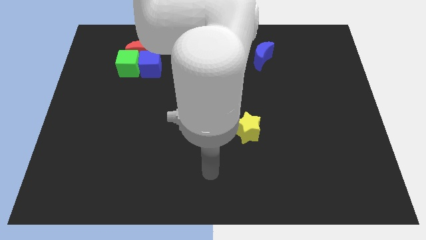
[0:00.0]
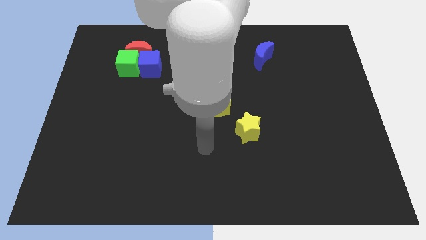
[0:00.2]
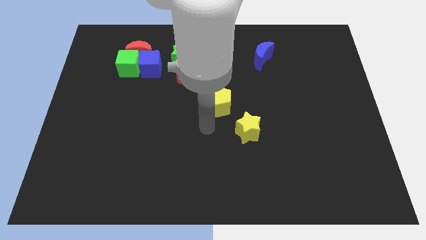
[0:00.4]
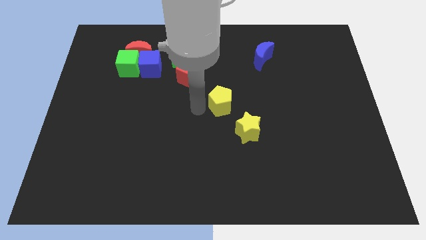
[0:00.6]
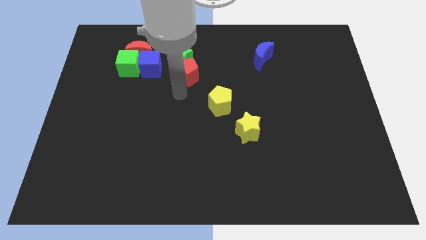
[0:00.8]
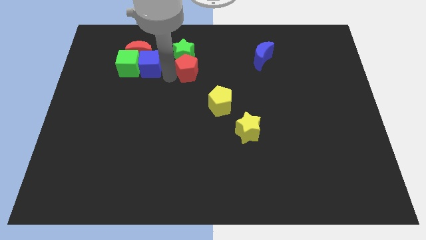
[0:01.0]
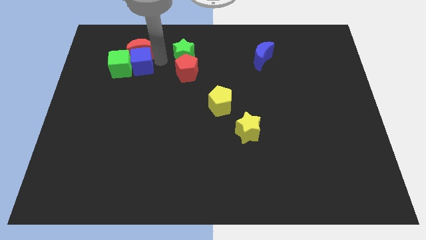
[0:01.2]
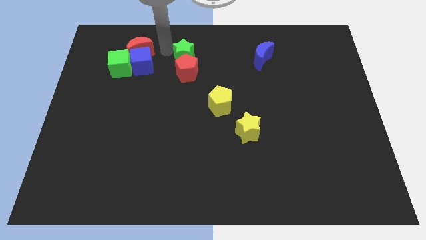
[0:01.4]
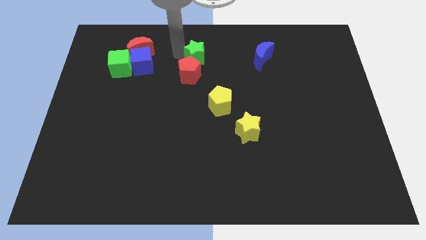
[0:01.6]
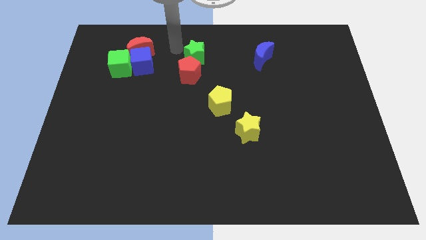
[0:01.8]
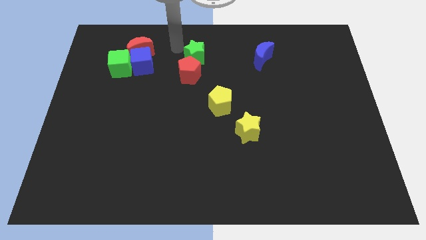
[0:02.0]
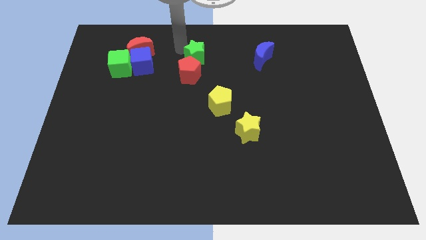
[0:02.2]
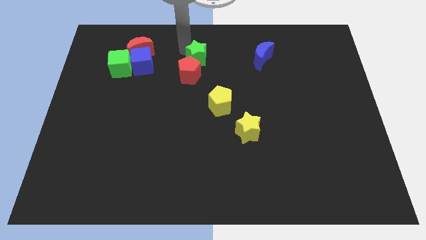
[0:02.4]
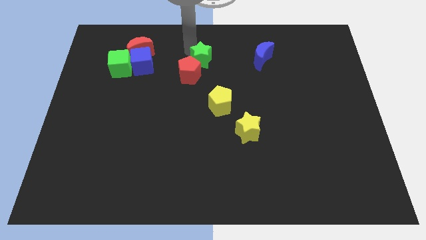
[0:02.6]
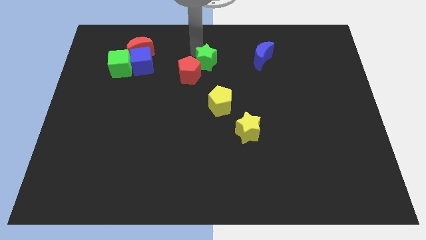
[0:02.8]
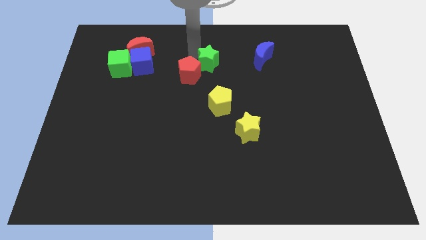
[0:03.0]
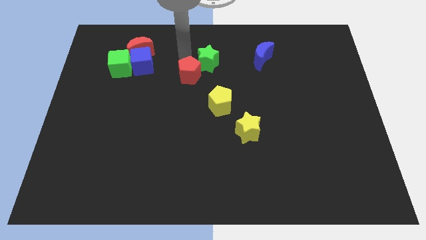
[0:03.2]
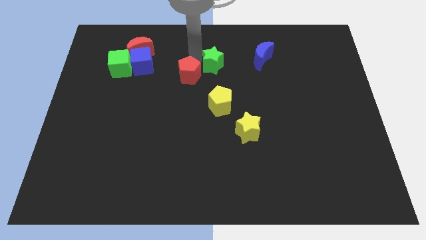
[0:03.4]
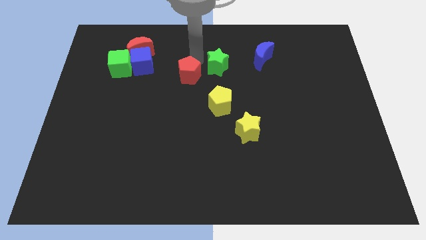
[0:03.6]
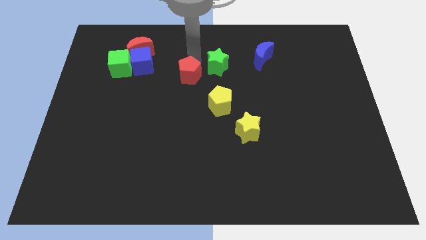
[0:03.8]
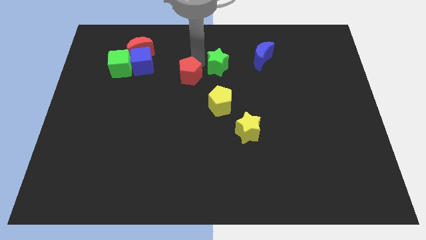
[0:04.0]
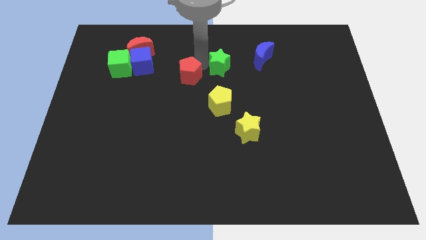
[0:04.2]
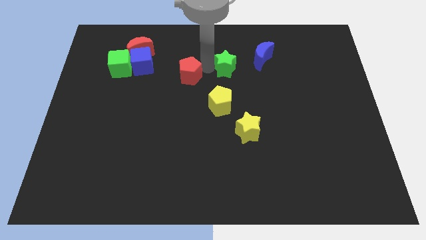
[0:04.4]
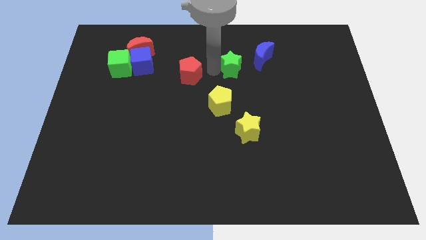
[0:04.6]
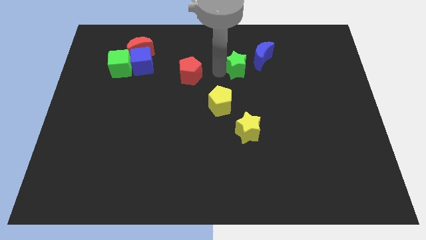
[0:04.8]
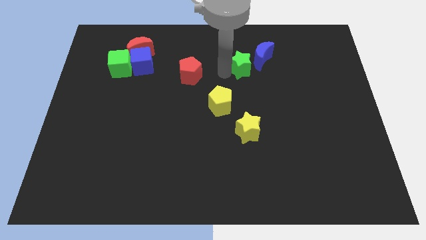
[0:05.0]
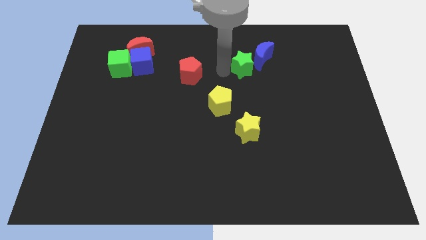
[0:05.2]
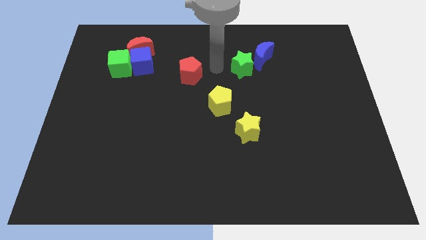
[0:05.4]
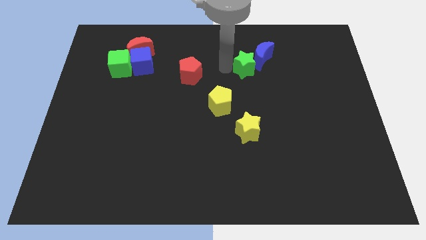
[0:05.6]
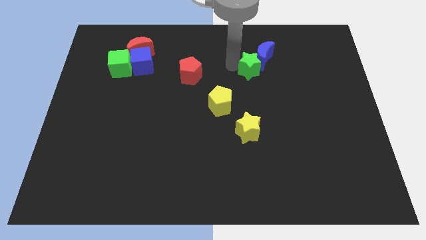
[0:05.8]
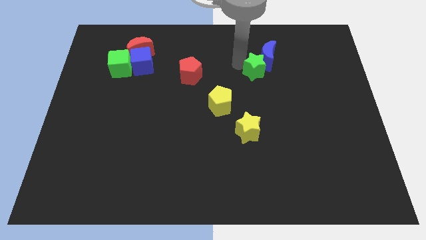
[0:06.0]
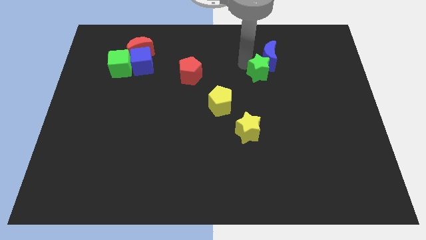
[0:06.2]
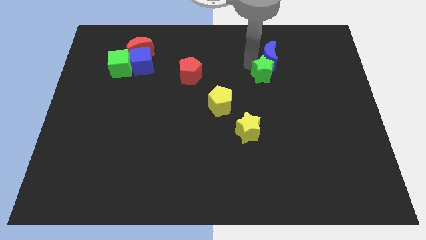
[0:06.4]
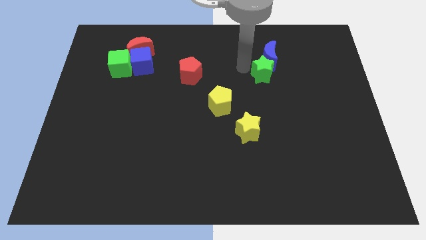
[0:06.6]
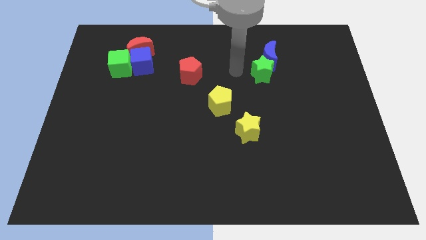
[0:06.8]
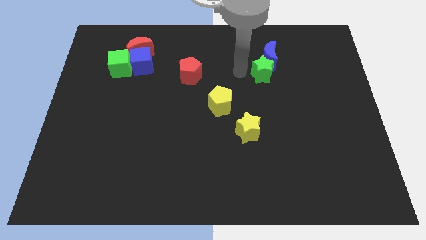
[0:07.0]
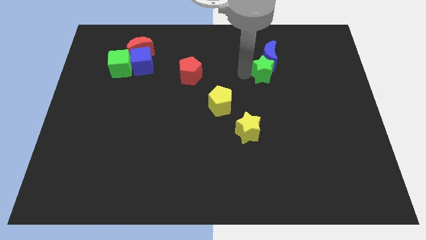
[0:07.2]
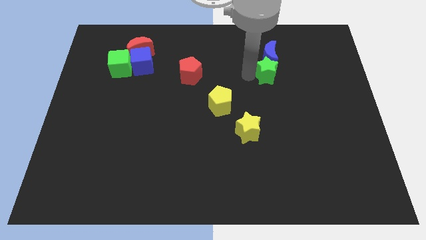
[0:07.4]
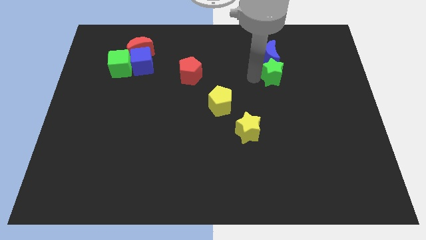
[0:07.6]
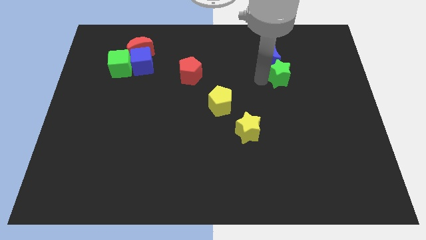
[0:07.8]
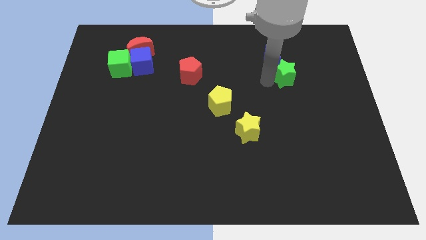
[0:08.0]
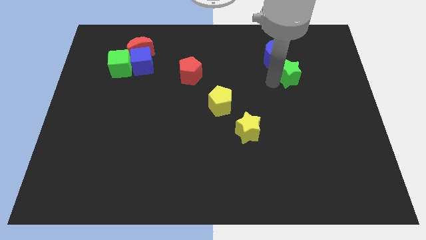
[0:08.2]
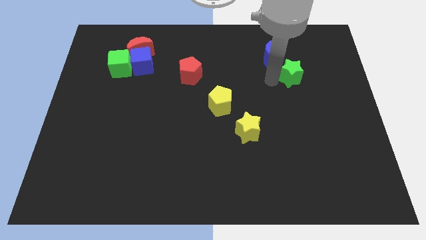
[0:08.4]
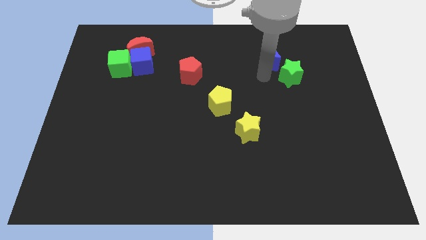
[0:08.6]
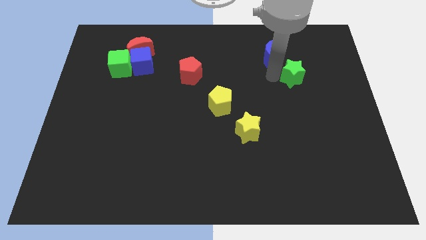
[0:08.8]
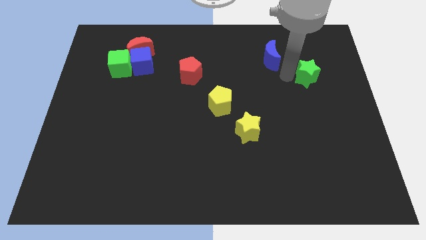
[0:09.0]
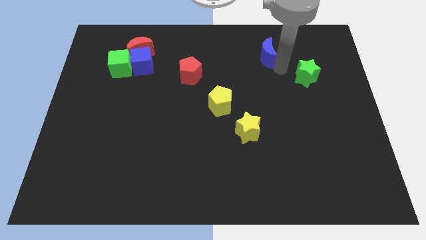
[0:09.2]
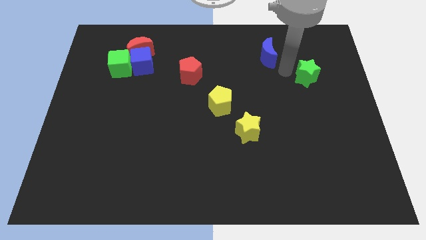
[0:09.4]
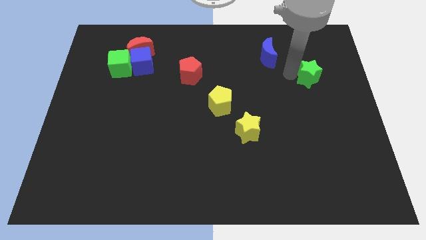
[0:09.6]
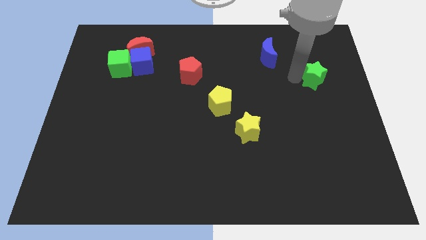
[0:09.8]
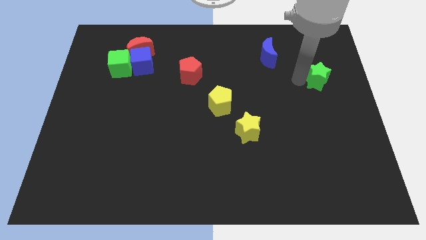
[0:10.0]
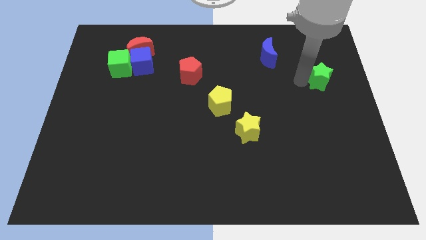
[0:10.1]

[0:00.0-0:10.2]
move the green star to the center right

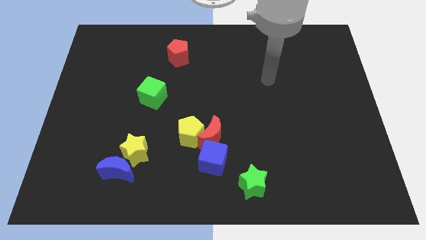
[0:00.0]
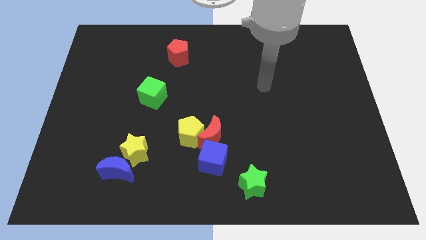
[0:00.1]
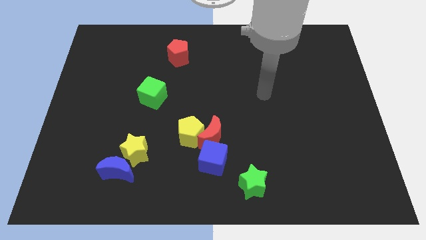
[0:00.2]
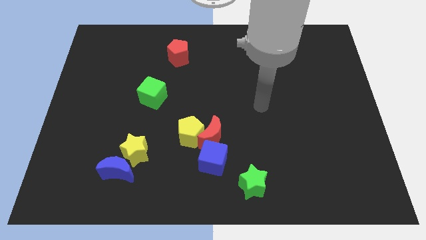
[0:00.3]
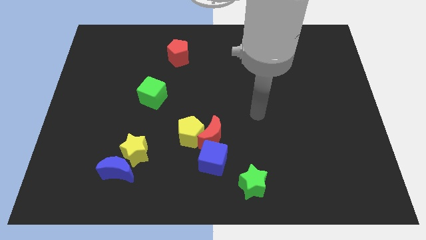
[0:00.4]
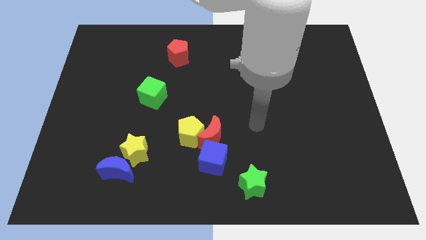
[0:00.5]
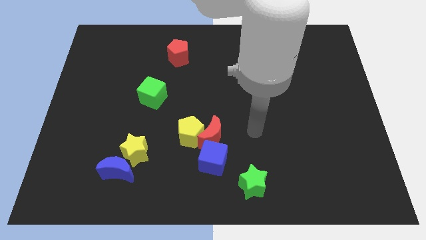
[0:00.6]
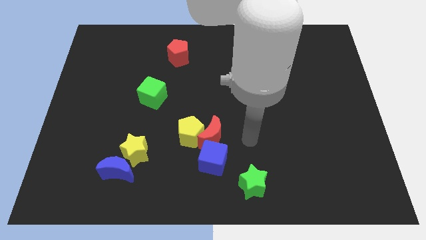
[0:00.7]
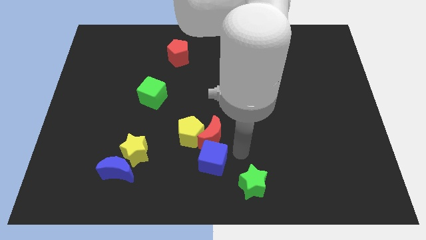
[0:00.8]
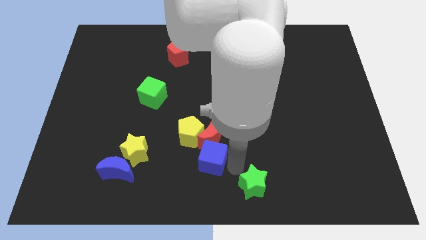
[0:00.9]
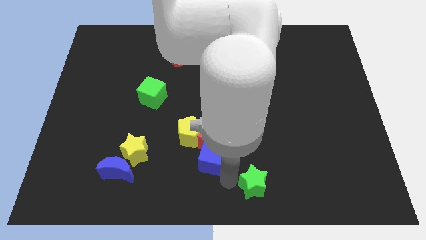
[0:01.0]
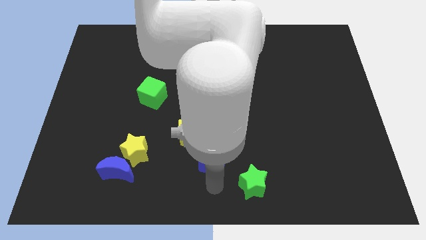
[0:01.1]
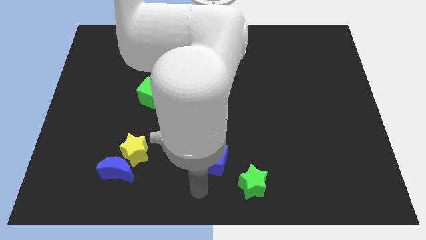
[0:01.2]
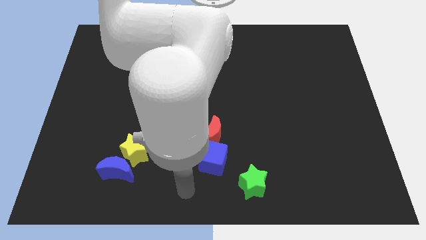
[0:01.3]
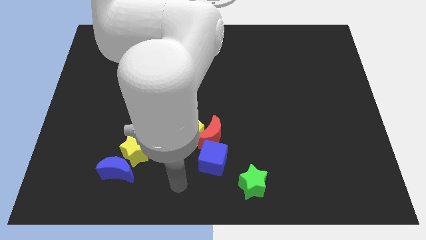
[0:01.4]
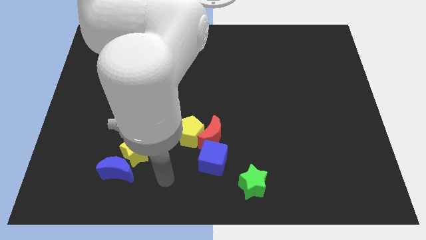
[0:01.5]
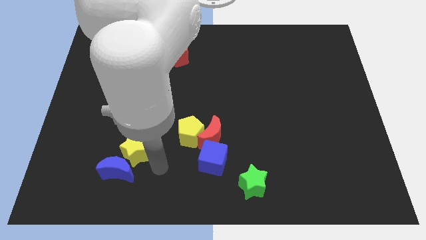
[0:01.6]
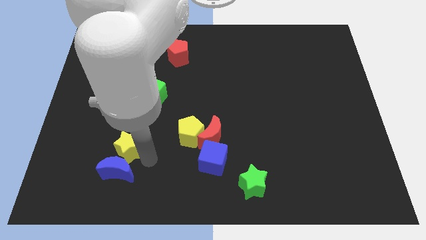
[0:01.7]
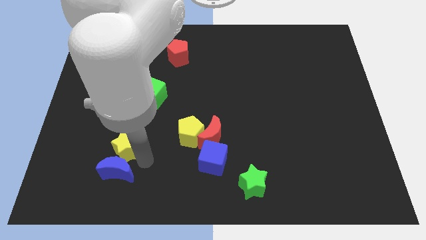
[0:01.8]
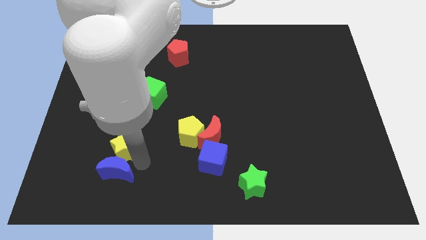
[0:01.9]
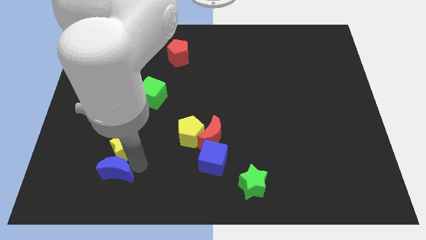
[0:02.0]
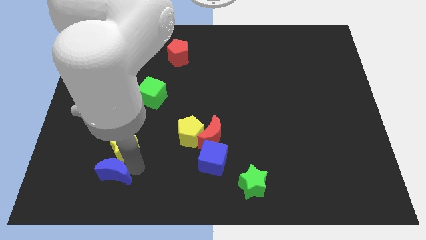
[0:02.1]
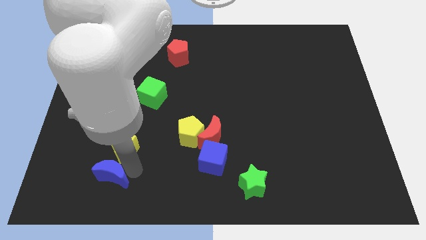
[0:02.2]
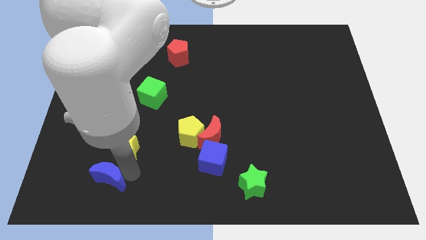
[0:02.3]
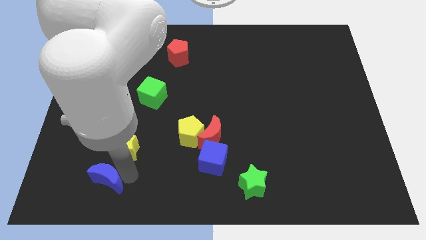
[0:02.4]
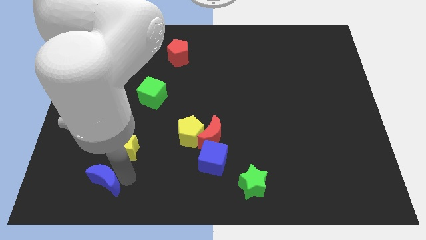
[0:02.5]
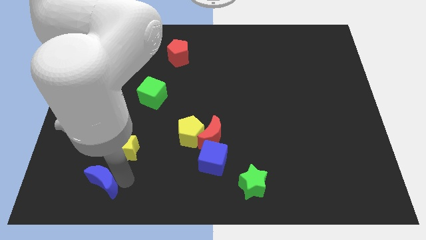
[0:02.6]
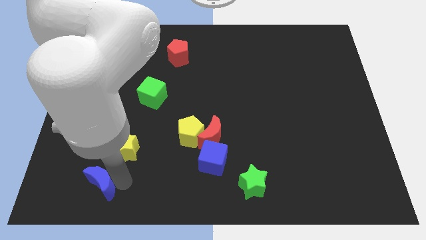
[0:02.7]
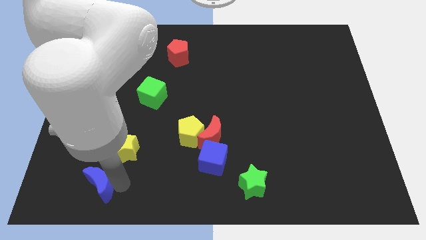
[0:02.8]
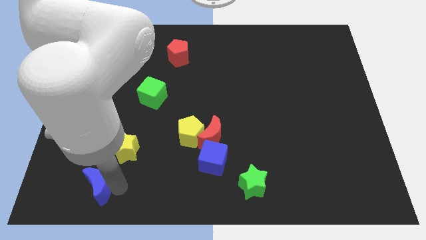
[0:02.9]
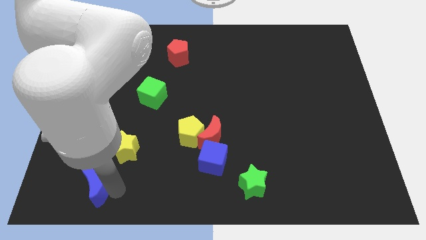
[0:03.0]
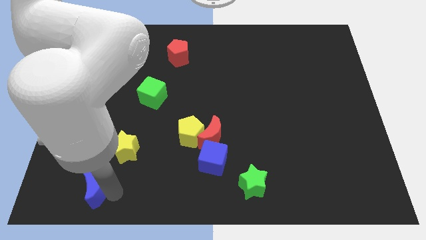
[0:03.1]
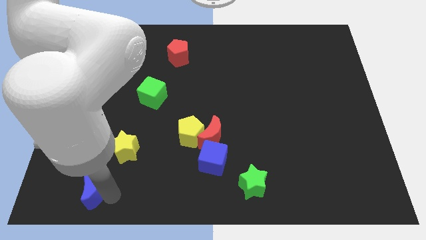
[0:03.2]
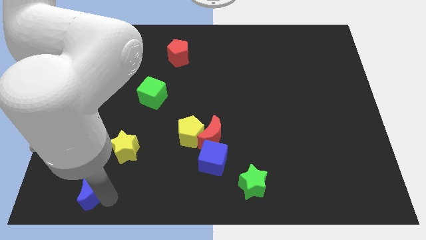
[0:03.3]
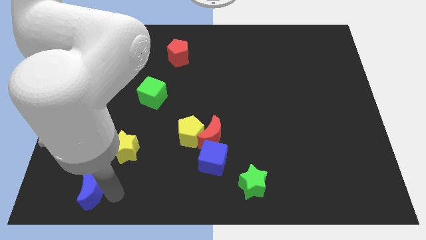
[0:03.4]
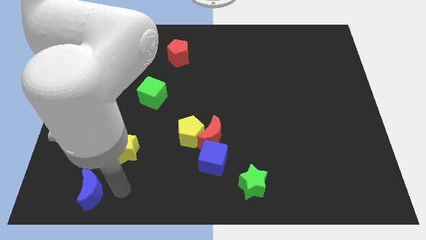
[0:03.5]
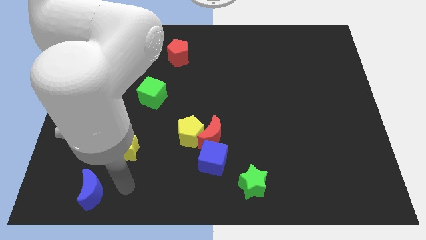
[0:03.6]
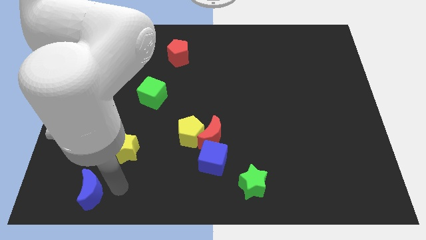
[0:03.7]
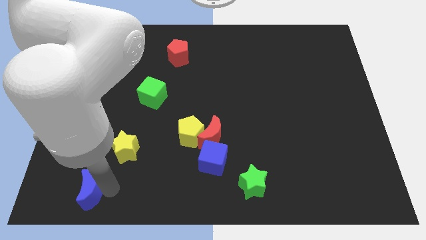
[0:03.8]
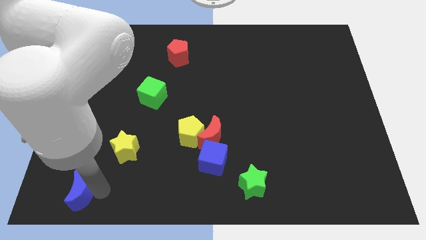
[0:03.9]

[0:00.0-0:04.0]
put the blue moon to the lower left corner
